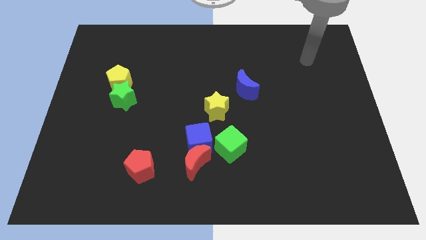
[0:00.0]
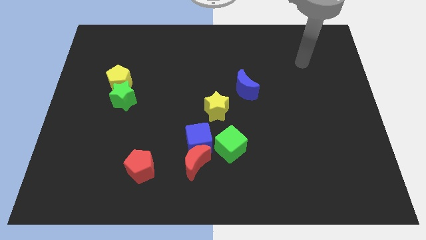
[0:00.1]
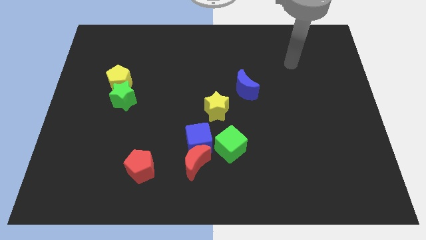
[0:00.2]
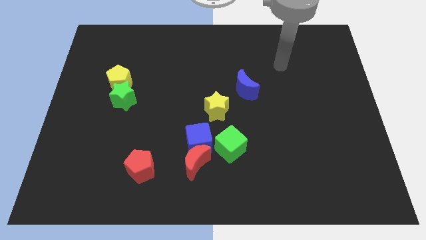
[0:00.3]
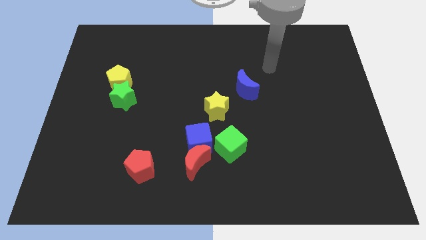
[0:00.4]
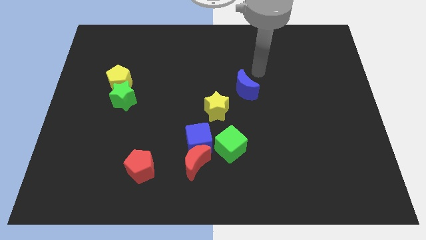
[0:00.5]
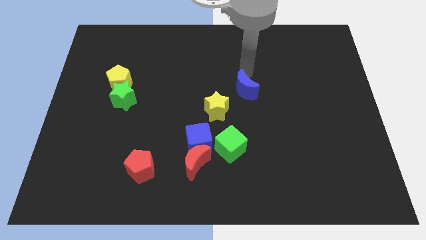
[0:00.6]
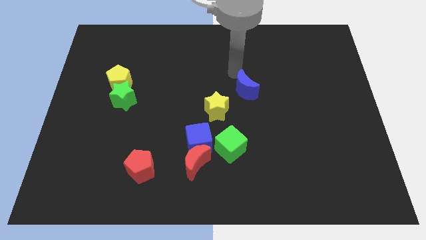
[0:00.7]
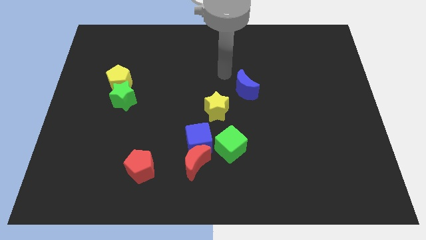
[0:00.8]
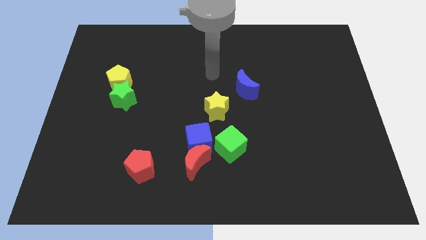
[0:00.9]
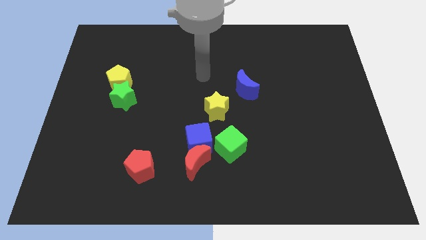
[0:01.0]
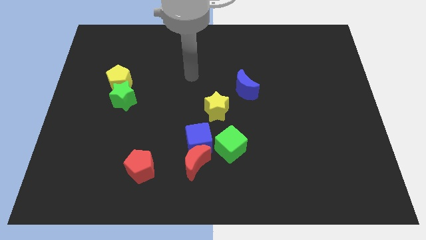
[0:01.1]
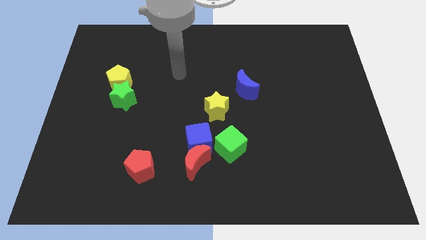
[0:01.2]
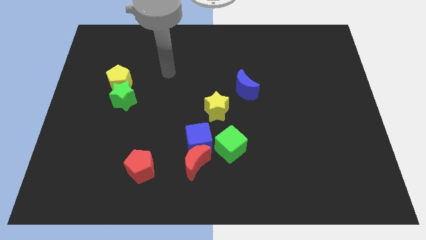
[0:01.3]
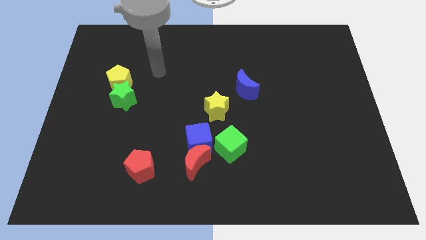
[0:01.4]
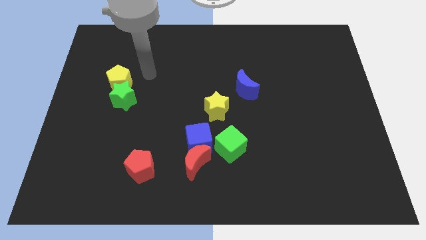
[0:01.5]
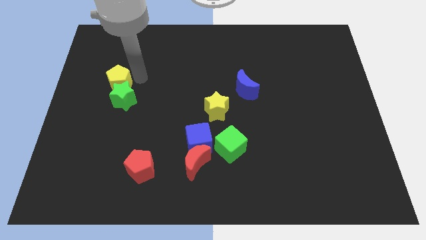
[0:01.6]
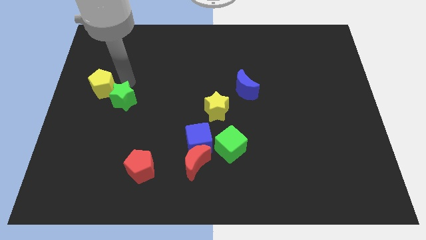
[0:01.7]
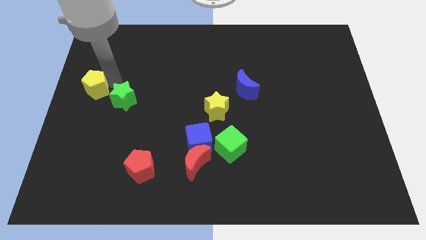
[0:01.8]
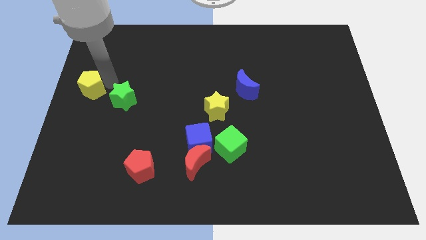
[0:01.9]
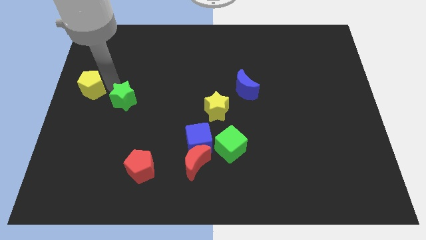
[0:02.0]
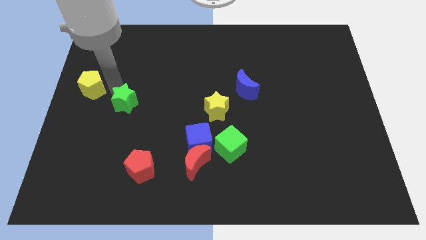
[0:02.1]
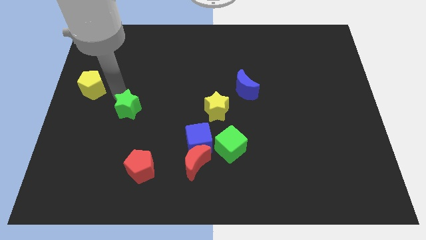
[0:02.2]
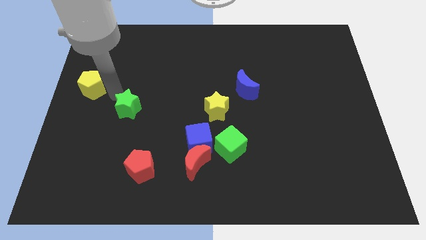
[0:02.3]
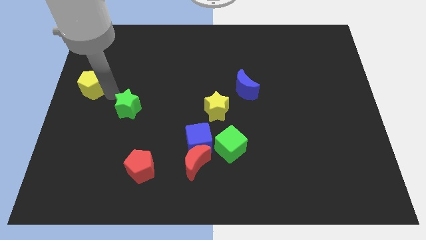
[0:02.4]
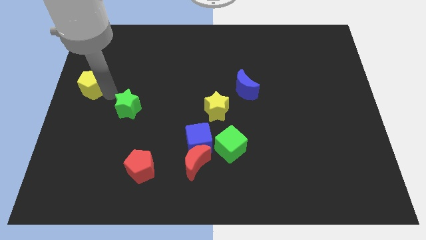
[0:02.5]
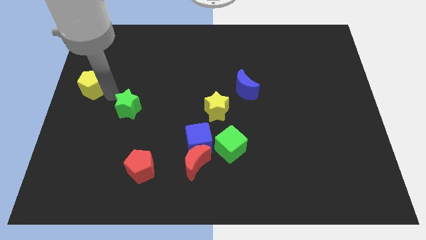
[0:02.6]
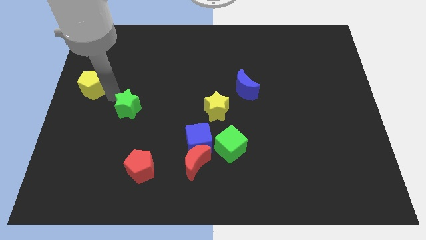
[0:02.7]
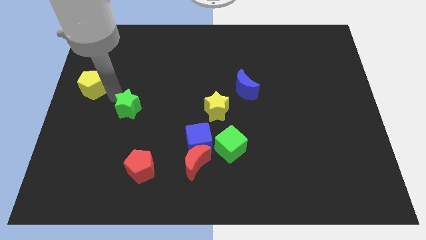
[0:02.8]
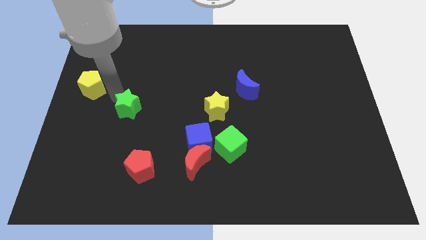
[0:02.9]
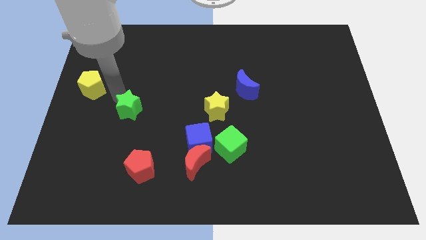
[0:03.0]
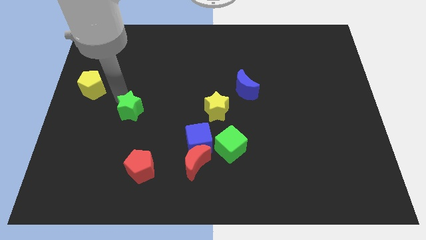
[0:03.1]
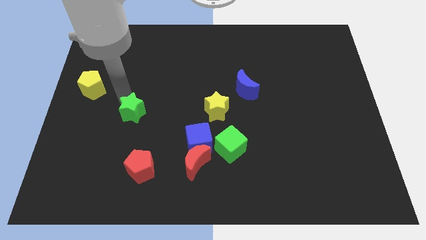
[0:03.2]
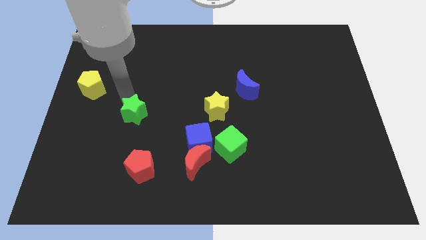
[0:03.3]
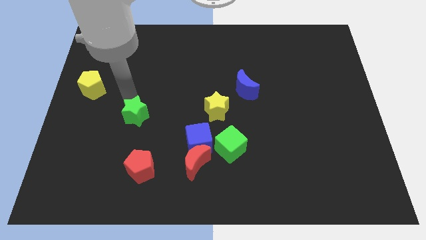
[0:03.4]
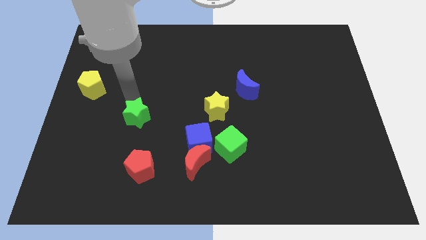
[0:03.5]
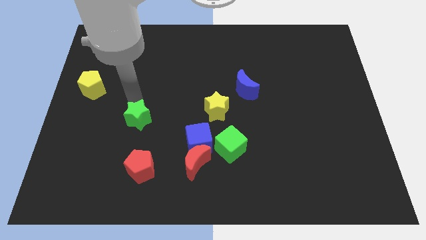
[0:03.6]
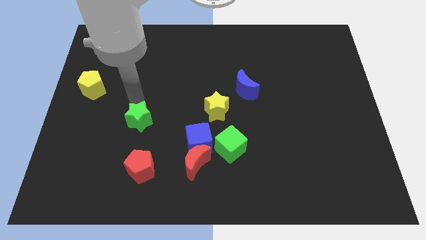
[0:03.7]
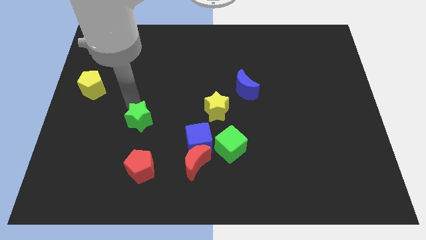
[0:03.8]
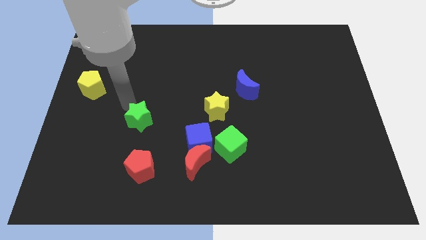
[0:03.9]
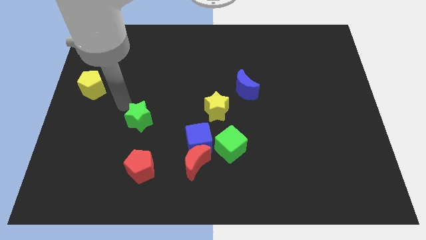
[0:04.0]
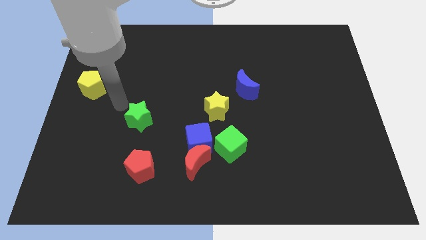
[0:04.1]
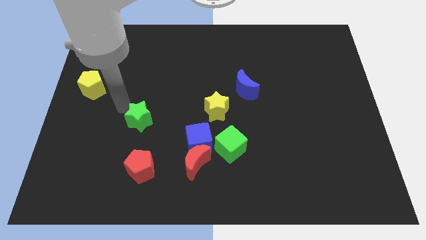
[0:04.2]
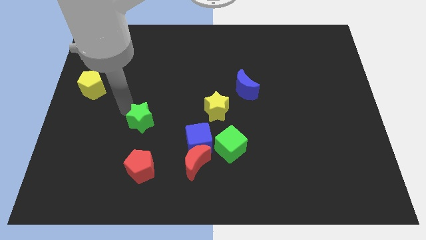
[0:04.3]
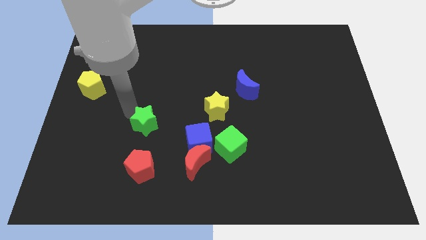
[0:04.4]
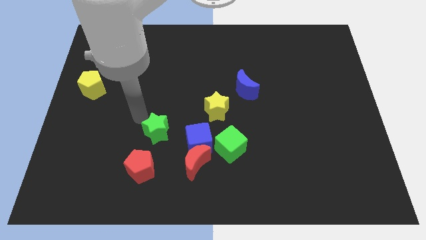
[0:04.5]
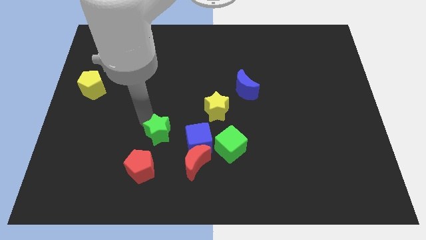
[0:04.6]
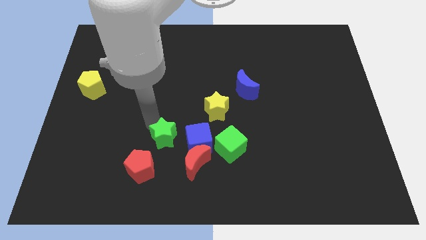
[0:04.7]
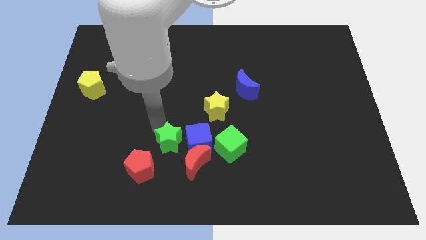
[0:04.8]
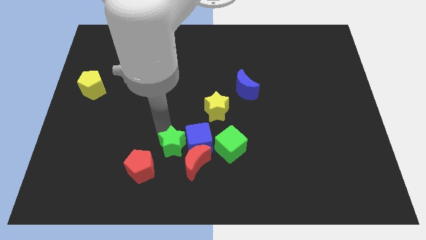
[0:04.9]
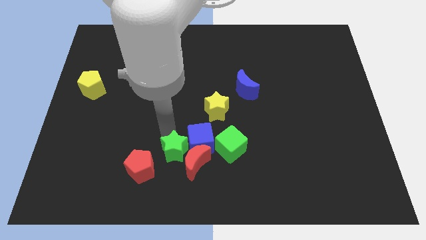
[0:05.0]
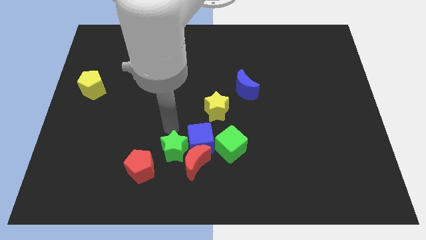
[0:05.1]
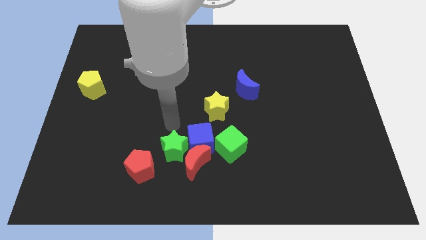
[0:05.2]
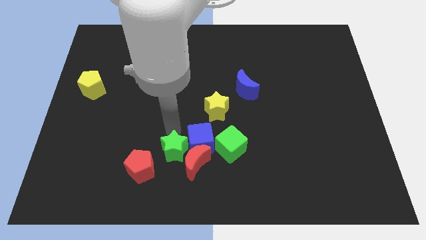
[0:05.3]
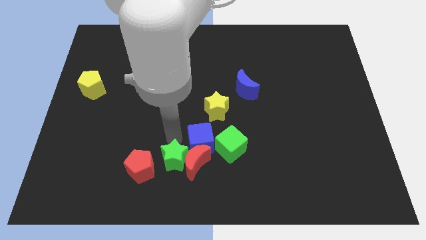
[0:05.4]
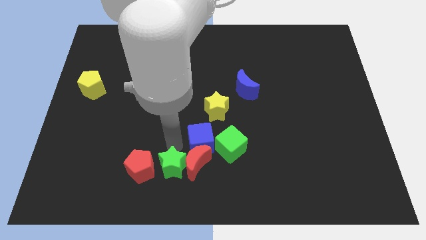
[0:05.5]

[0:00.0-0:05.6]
slide the green star to the bottom

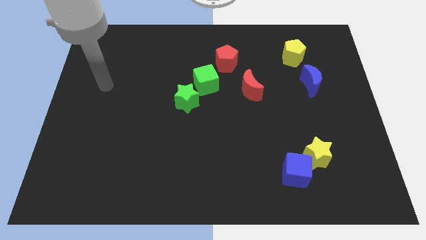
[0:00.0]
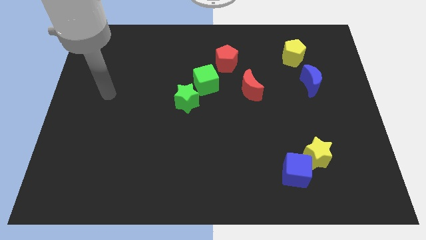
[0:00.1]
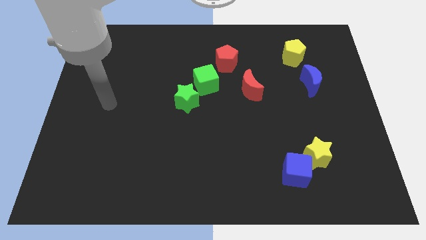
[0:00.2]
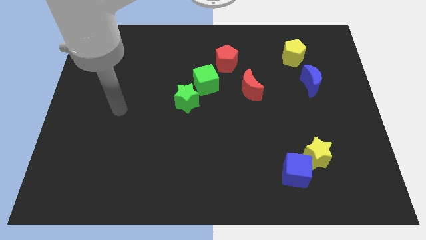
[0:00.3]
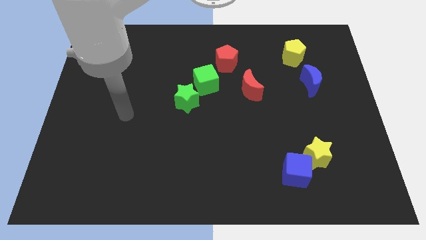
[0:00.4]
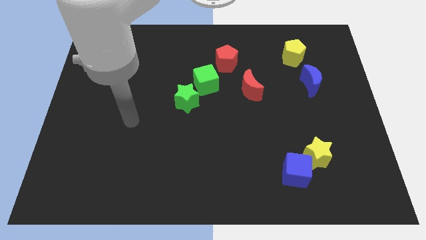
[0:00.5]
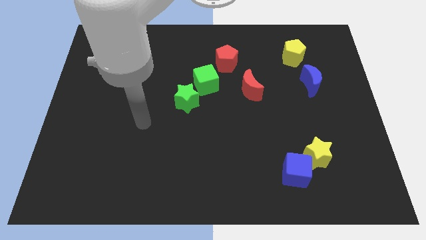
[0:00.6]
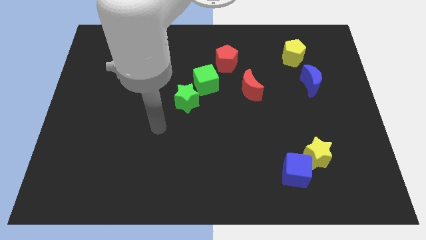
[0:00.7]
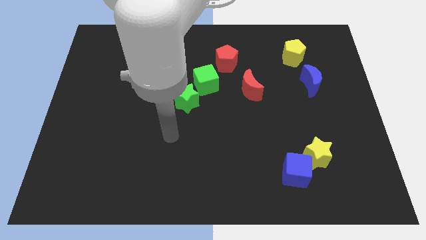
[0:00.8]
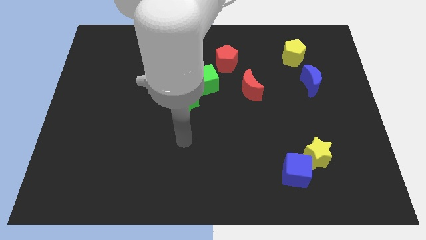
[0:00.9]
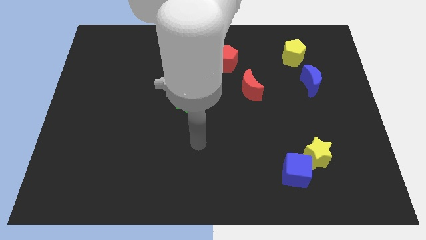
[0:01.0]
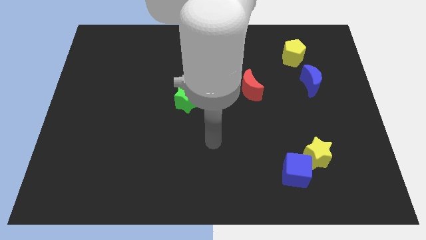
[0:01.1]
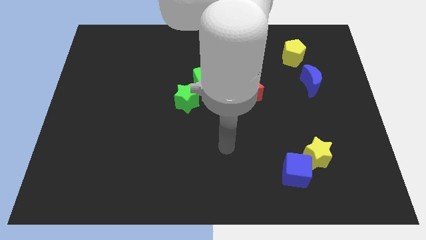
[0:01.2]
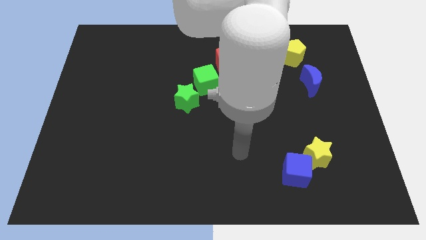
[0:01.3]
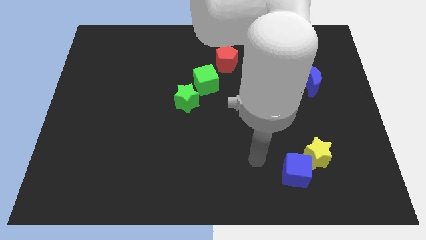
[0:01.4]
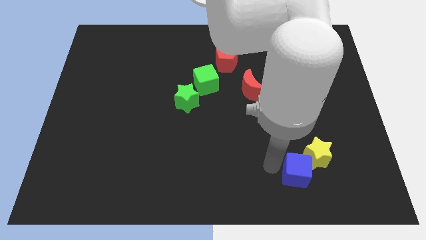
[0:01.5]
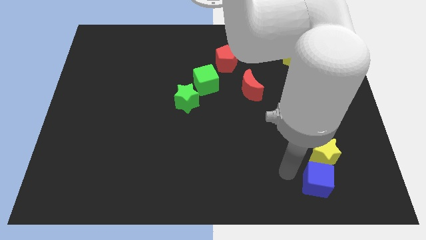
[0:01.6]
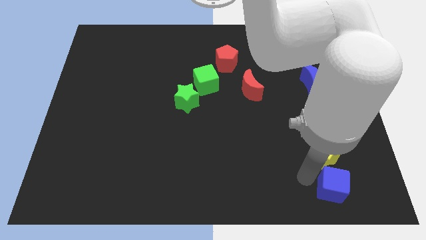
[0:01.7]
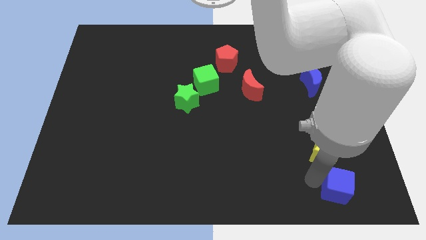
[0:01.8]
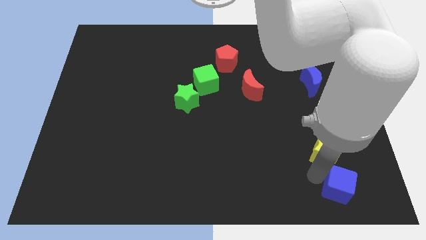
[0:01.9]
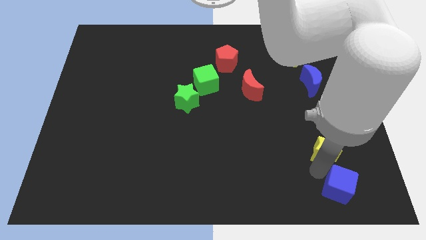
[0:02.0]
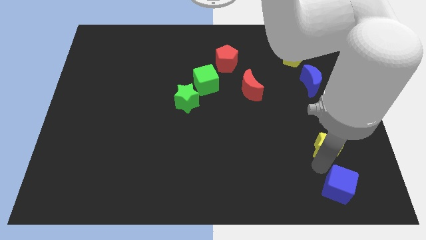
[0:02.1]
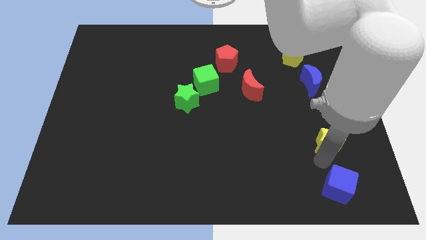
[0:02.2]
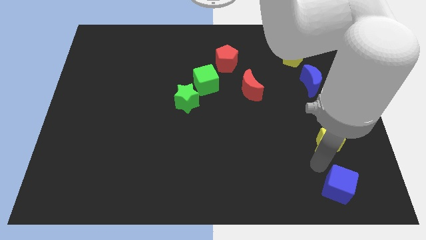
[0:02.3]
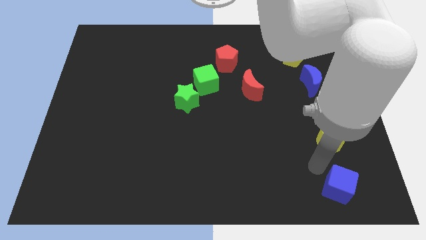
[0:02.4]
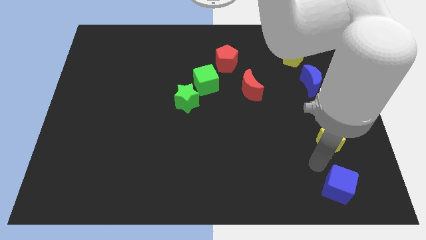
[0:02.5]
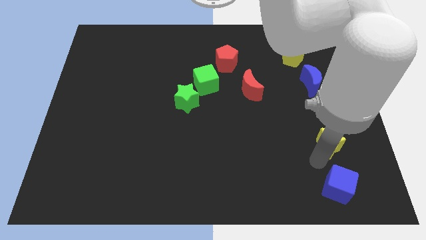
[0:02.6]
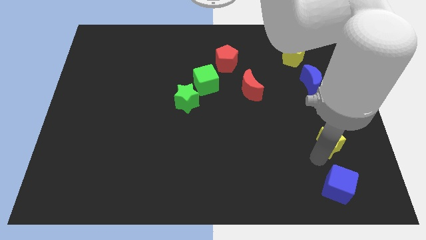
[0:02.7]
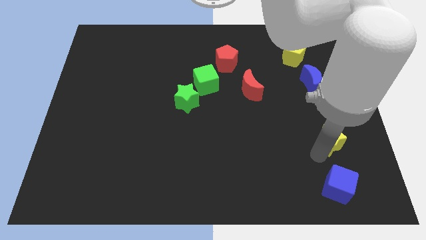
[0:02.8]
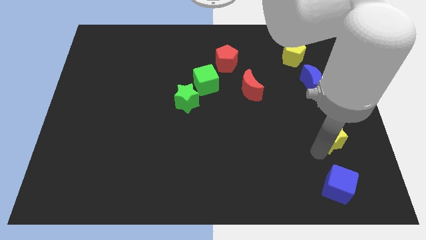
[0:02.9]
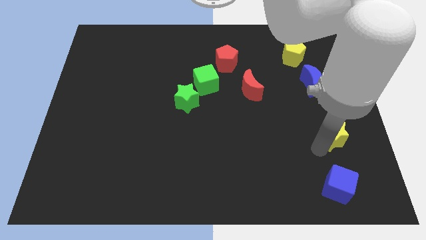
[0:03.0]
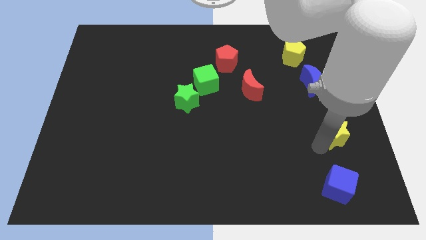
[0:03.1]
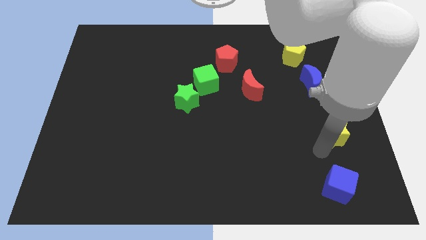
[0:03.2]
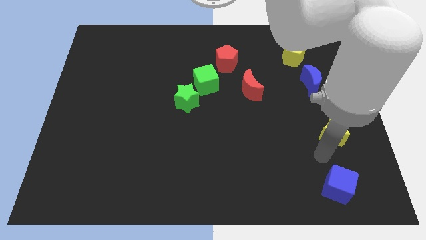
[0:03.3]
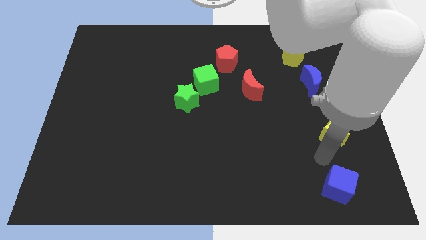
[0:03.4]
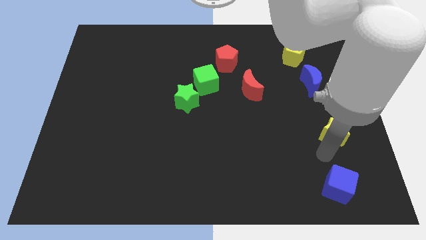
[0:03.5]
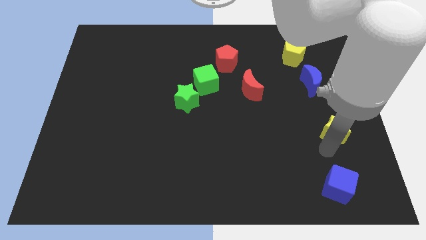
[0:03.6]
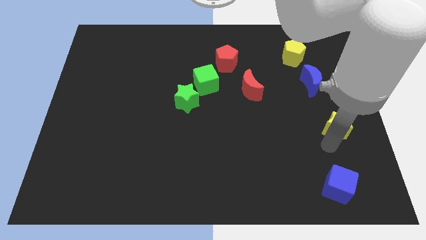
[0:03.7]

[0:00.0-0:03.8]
push the yellow star to the right side
